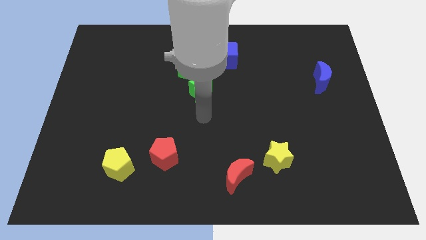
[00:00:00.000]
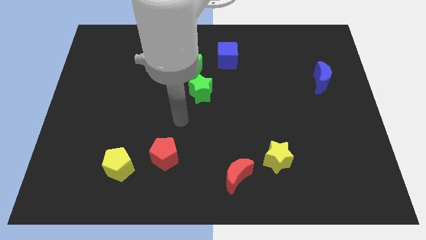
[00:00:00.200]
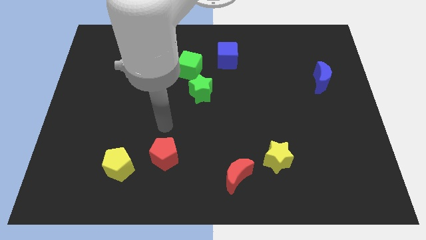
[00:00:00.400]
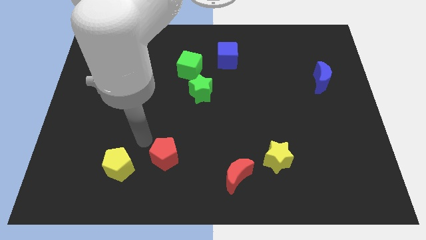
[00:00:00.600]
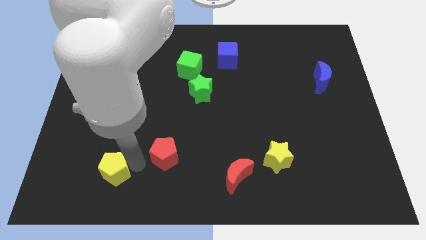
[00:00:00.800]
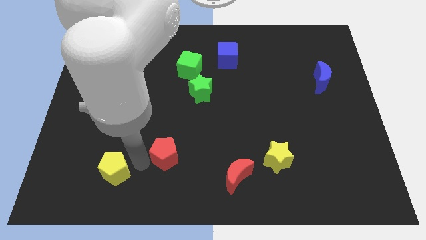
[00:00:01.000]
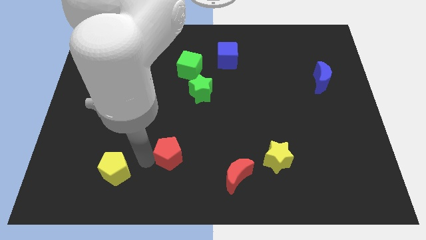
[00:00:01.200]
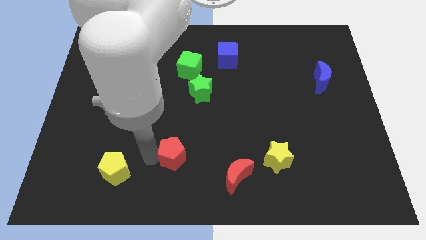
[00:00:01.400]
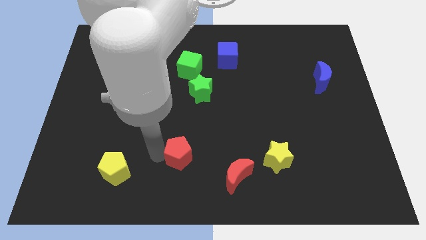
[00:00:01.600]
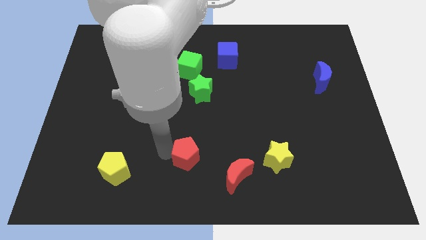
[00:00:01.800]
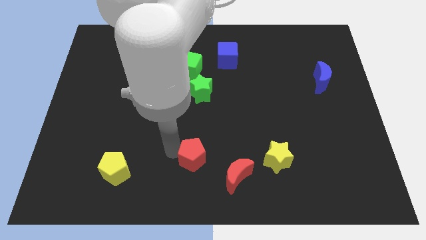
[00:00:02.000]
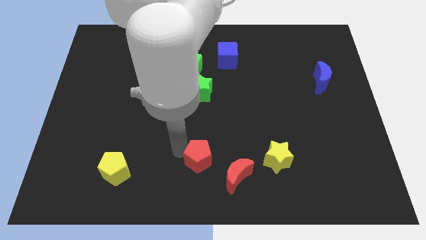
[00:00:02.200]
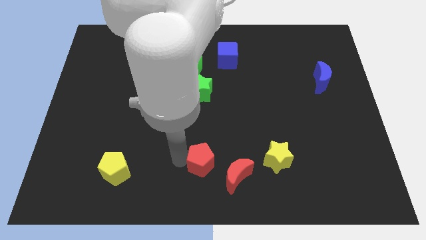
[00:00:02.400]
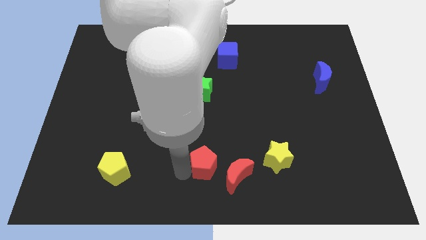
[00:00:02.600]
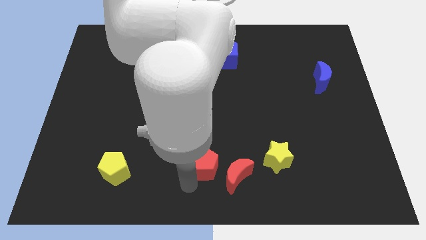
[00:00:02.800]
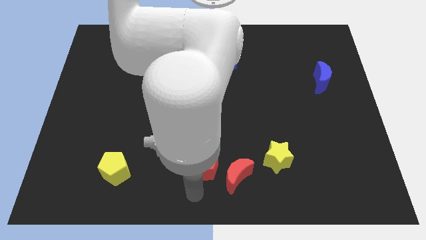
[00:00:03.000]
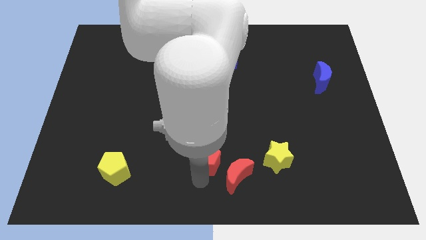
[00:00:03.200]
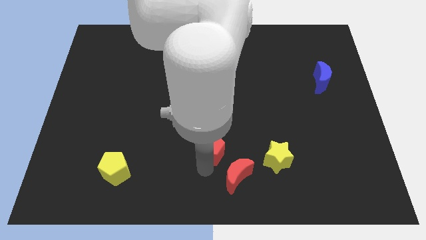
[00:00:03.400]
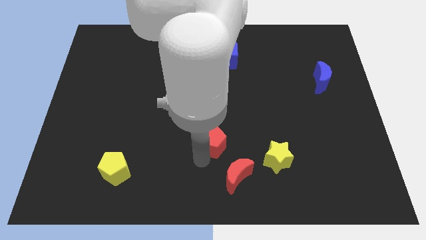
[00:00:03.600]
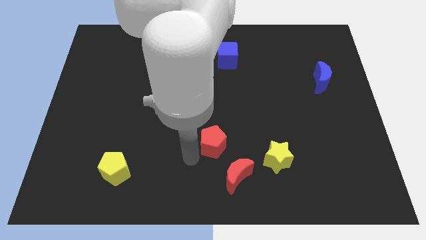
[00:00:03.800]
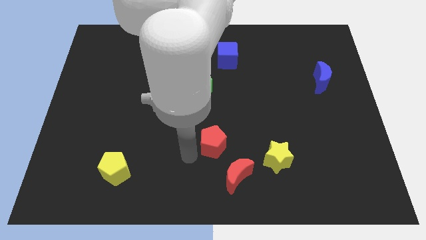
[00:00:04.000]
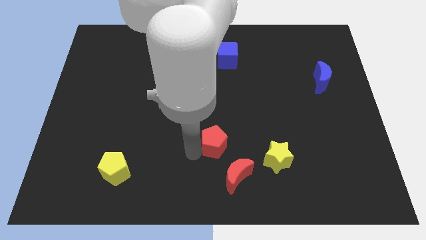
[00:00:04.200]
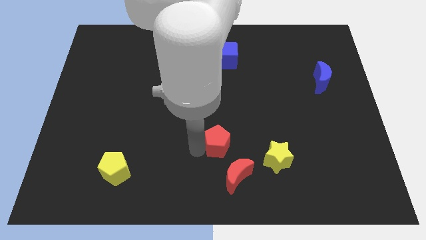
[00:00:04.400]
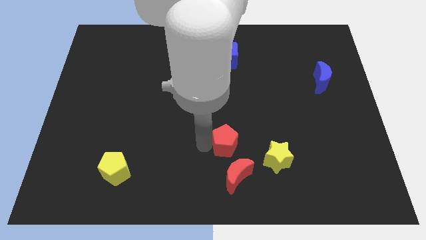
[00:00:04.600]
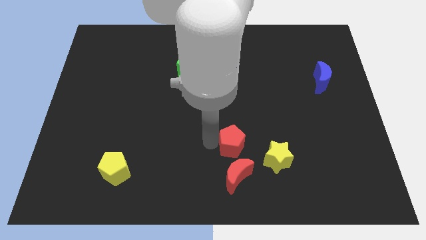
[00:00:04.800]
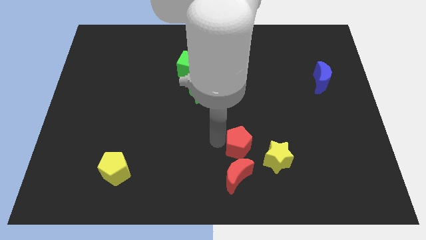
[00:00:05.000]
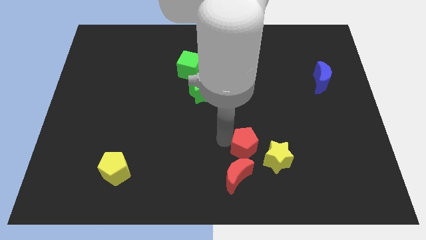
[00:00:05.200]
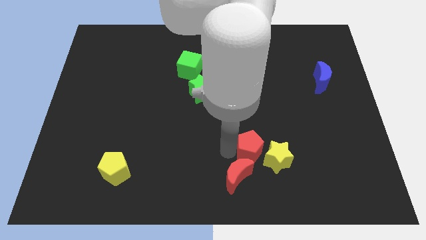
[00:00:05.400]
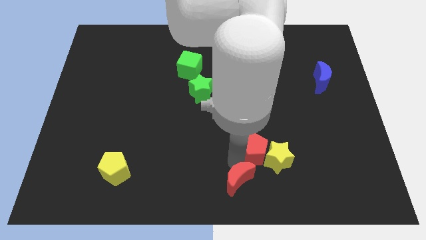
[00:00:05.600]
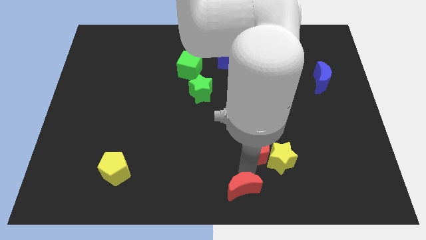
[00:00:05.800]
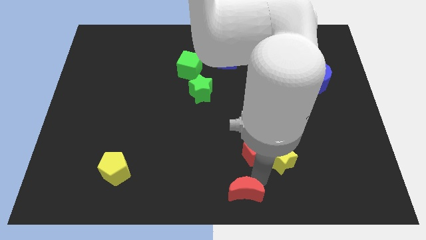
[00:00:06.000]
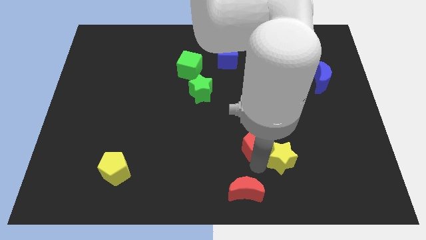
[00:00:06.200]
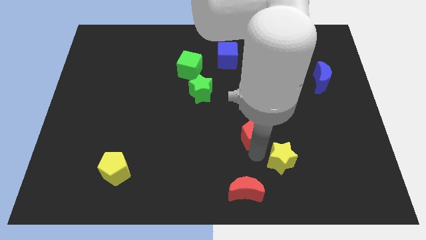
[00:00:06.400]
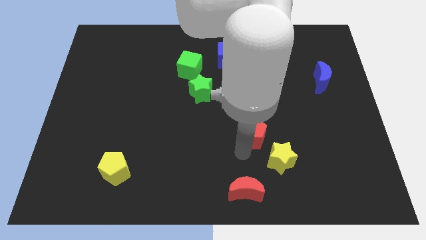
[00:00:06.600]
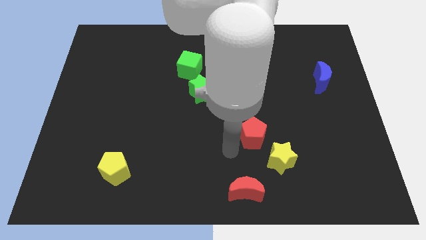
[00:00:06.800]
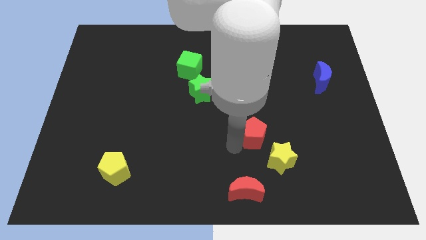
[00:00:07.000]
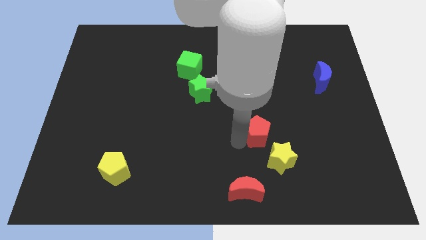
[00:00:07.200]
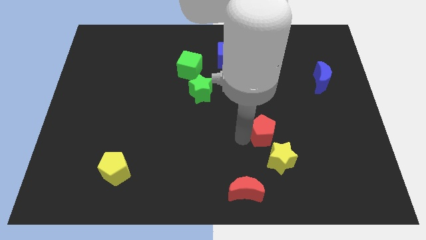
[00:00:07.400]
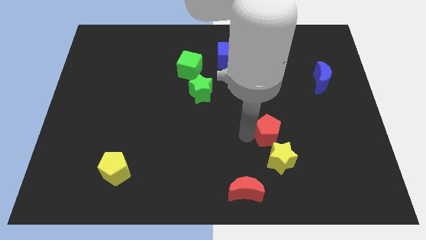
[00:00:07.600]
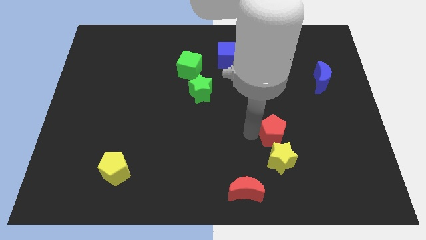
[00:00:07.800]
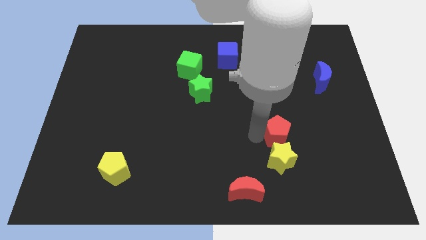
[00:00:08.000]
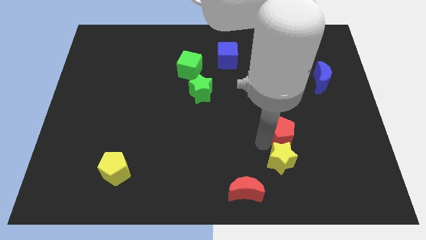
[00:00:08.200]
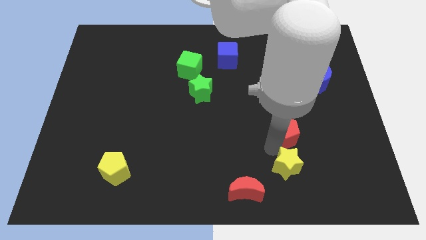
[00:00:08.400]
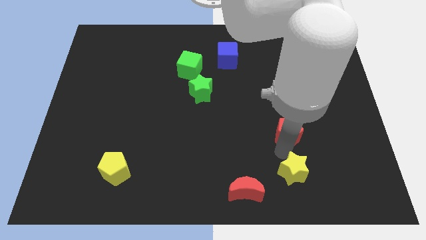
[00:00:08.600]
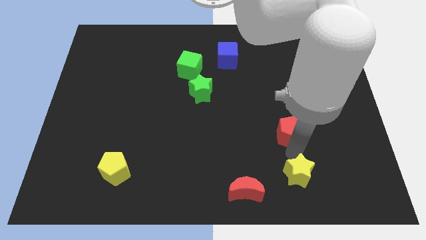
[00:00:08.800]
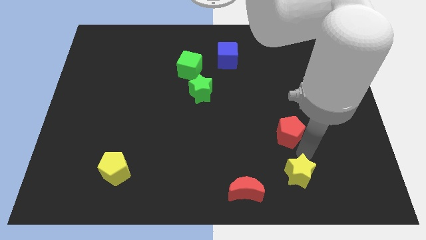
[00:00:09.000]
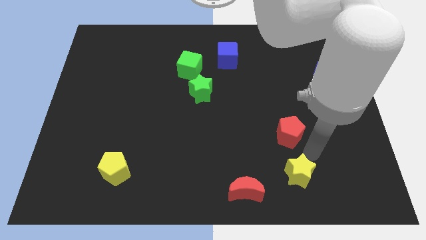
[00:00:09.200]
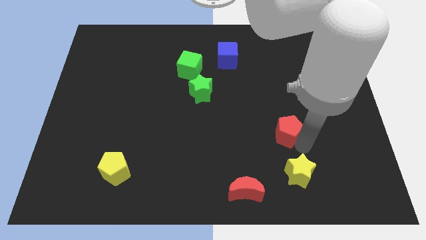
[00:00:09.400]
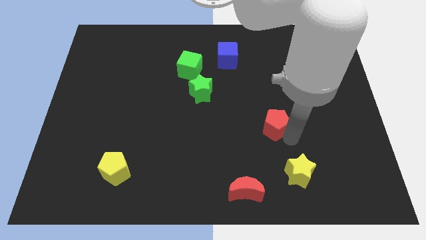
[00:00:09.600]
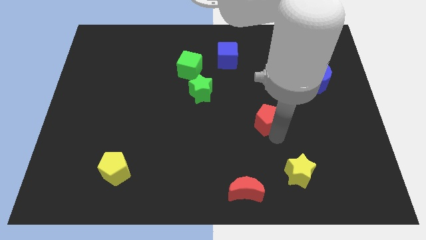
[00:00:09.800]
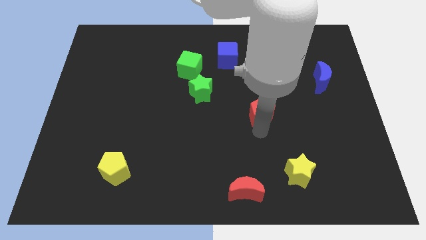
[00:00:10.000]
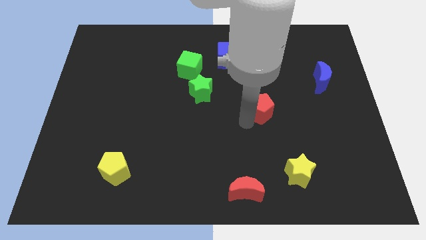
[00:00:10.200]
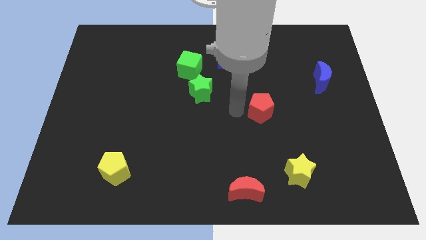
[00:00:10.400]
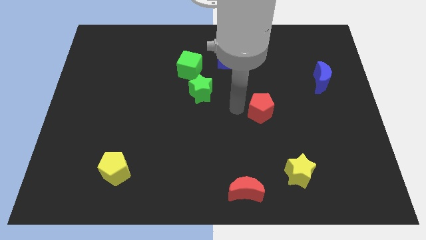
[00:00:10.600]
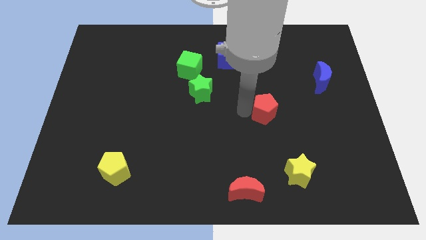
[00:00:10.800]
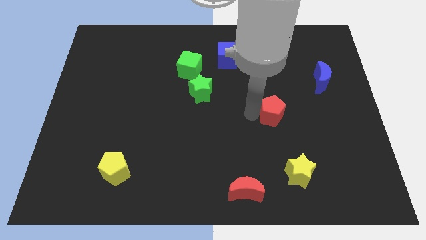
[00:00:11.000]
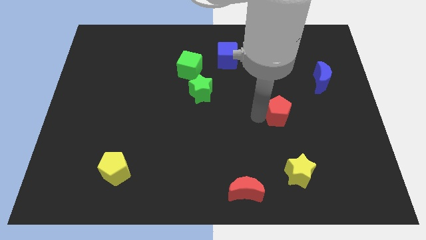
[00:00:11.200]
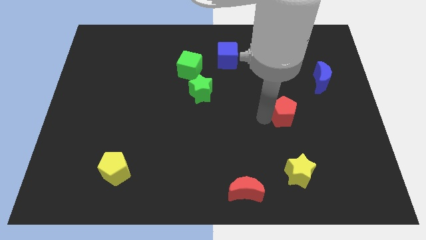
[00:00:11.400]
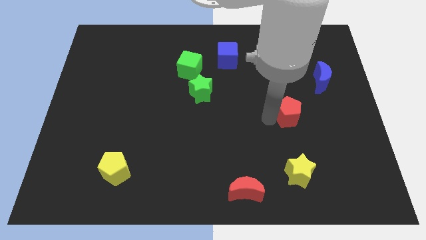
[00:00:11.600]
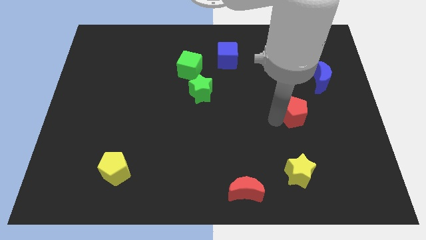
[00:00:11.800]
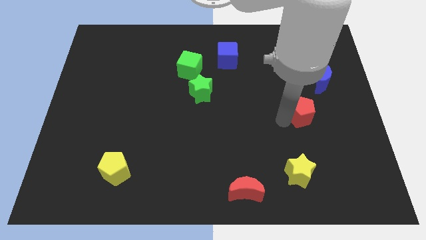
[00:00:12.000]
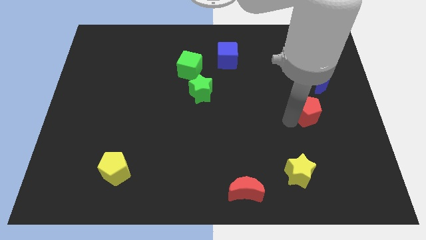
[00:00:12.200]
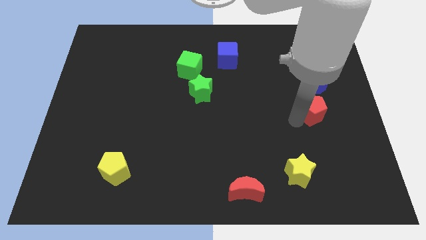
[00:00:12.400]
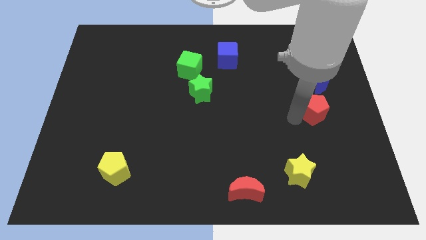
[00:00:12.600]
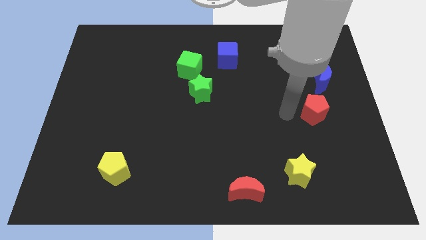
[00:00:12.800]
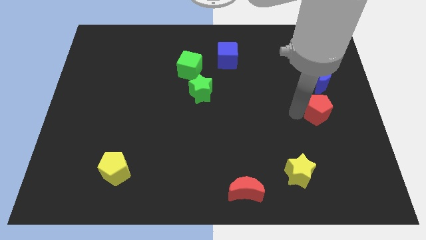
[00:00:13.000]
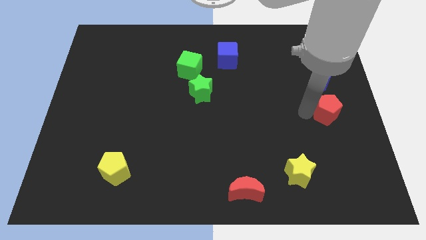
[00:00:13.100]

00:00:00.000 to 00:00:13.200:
put the red pentagon to the center right

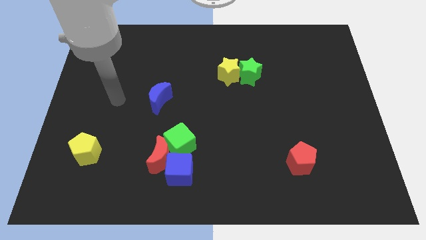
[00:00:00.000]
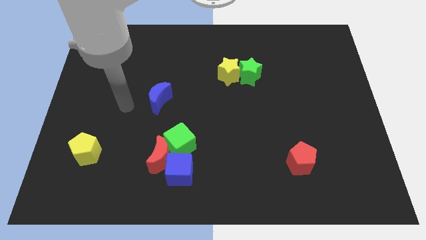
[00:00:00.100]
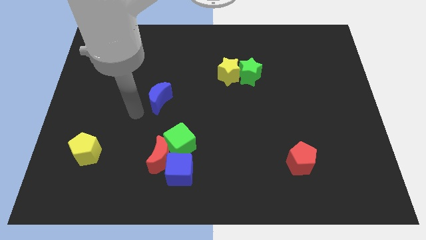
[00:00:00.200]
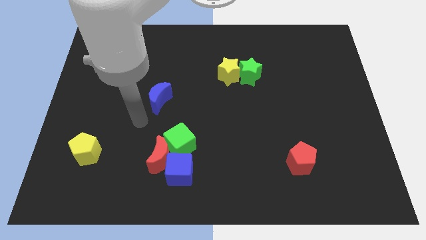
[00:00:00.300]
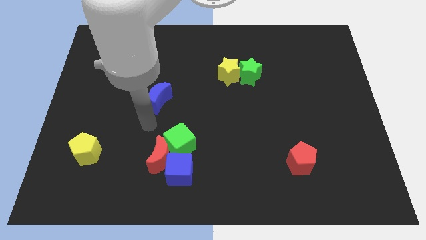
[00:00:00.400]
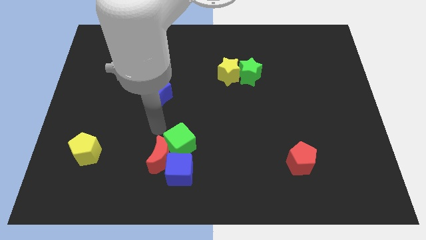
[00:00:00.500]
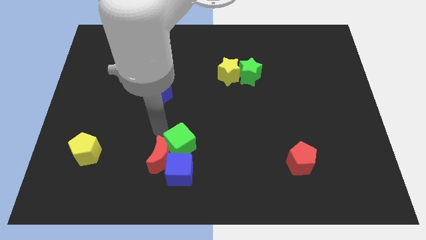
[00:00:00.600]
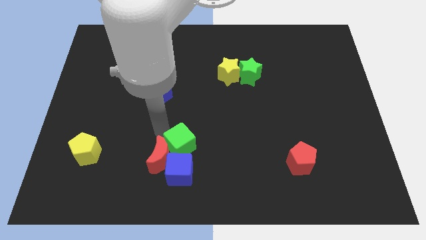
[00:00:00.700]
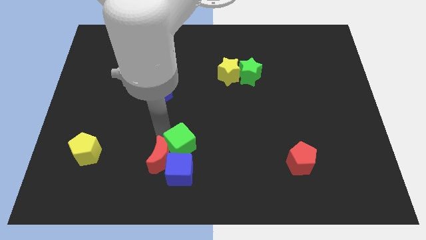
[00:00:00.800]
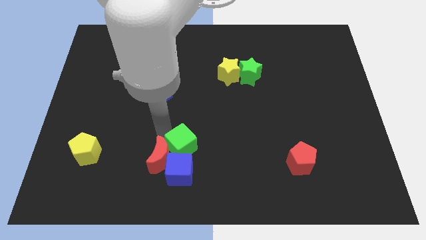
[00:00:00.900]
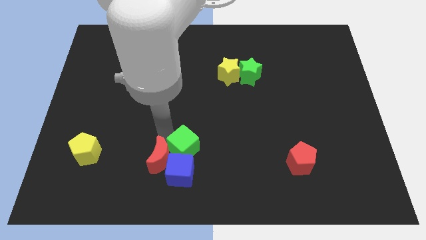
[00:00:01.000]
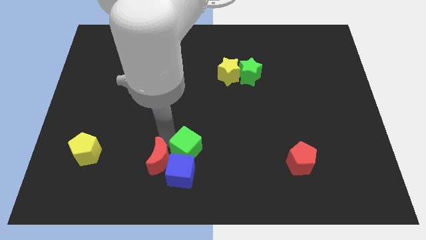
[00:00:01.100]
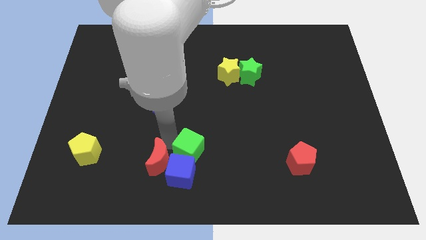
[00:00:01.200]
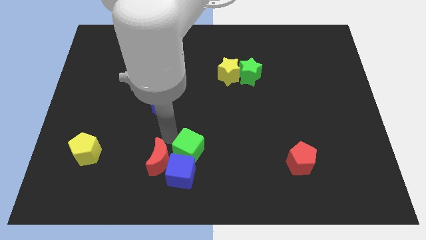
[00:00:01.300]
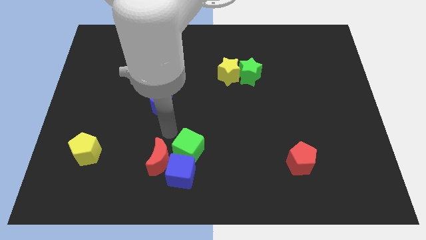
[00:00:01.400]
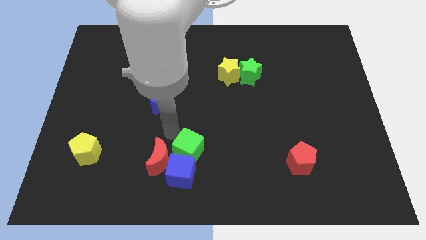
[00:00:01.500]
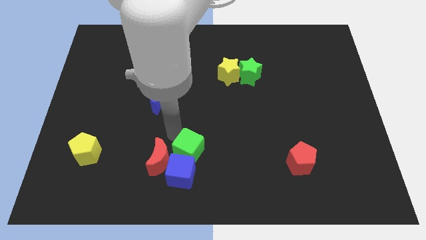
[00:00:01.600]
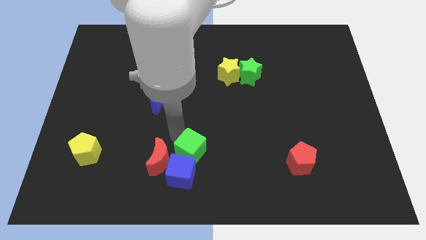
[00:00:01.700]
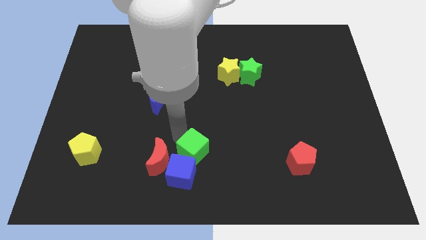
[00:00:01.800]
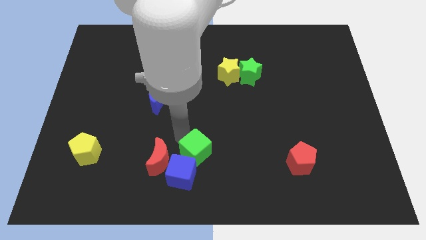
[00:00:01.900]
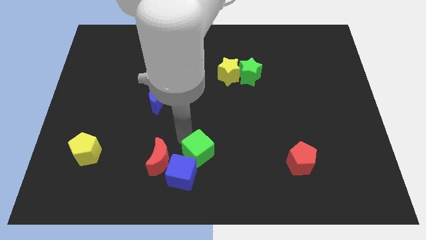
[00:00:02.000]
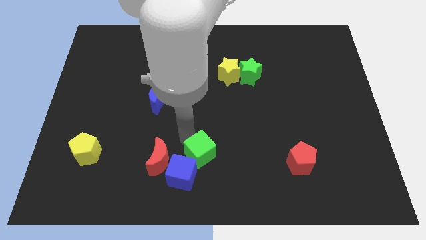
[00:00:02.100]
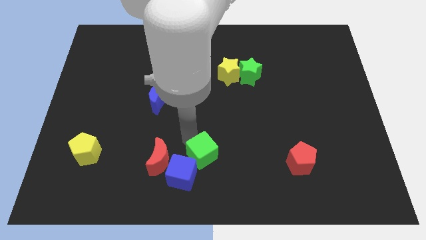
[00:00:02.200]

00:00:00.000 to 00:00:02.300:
put the green cube to the bottom side
